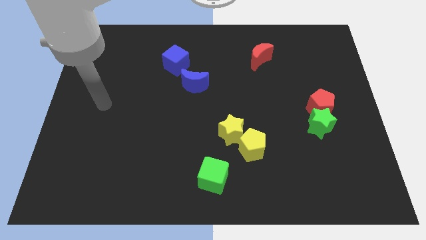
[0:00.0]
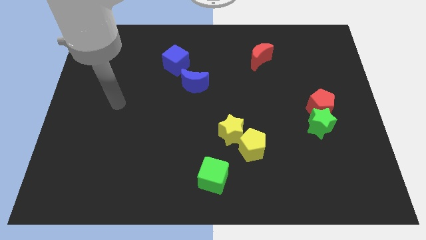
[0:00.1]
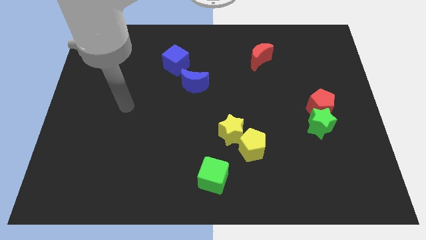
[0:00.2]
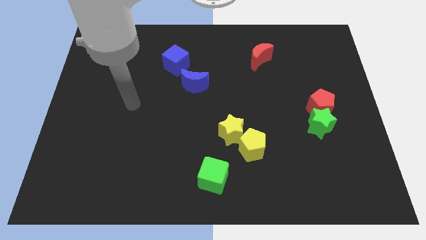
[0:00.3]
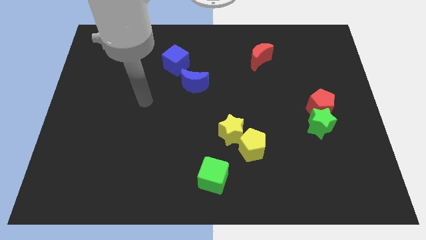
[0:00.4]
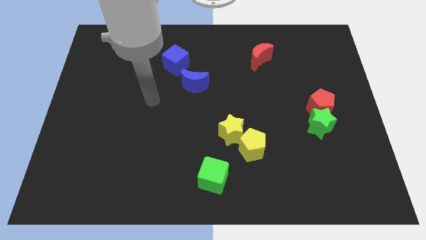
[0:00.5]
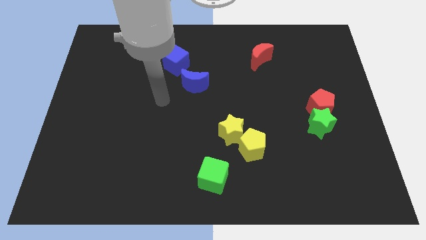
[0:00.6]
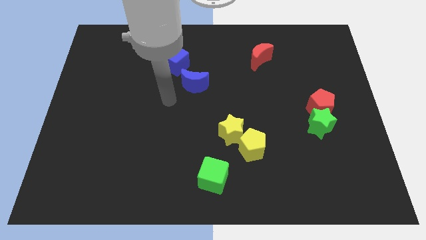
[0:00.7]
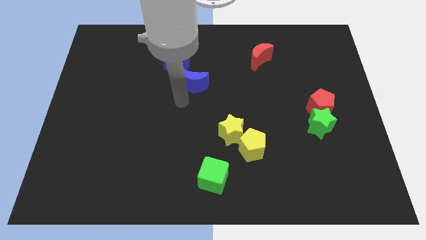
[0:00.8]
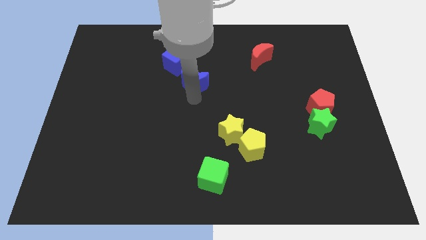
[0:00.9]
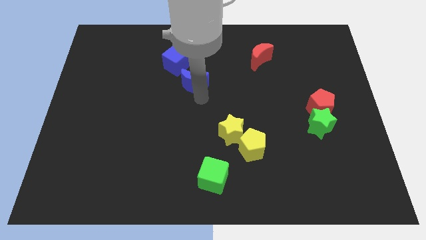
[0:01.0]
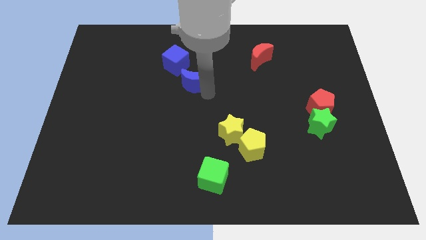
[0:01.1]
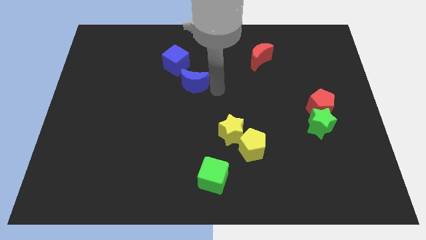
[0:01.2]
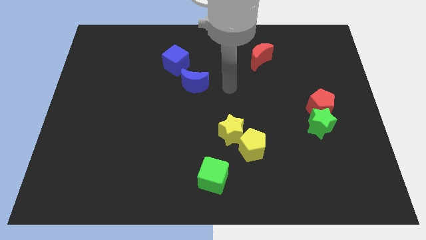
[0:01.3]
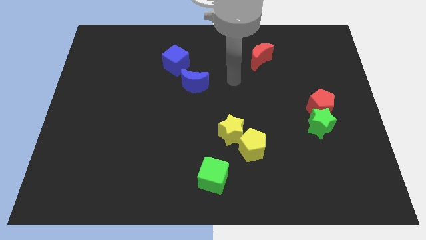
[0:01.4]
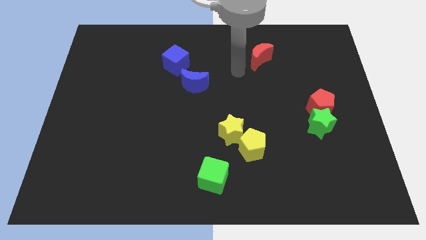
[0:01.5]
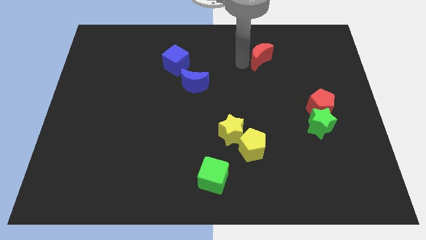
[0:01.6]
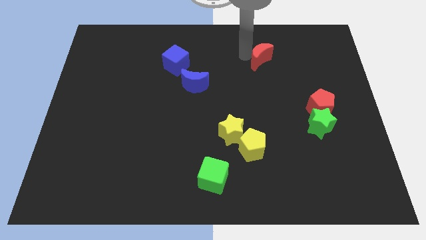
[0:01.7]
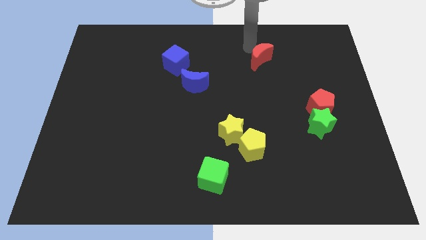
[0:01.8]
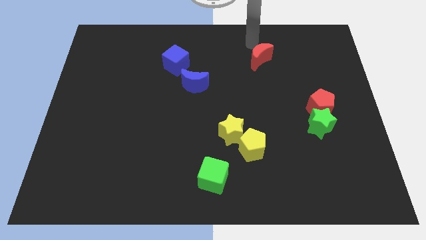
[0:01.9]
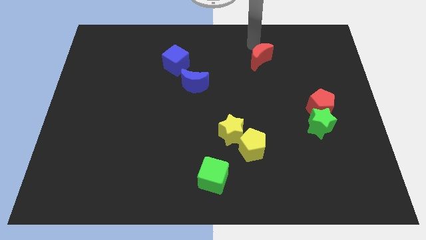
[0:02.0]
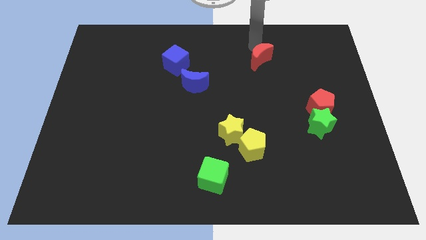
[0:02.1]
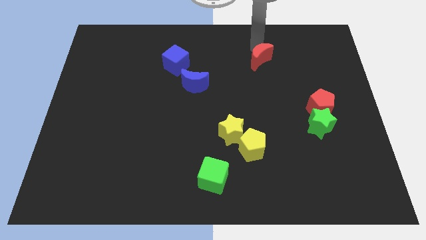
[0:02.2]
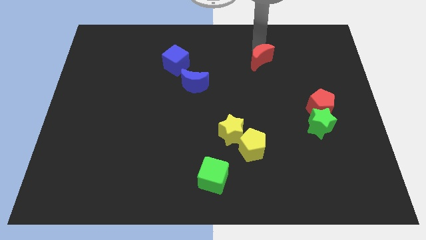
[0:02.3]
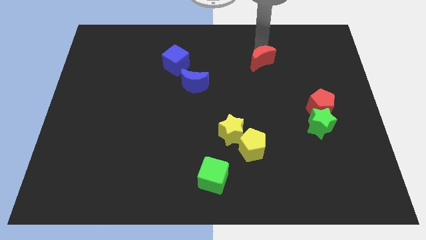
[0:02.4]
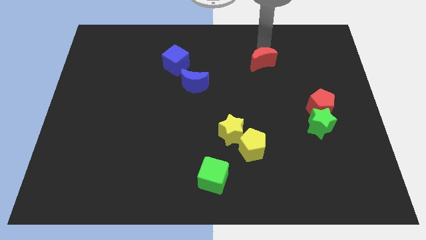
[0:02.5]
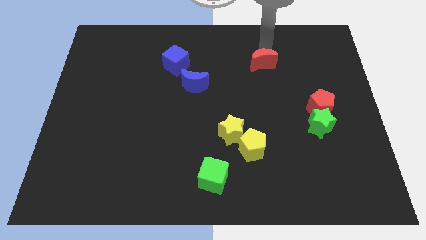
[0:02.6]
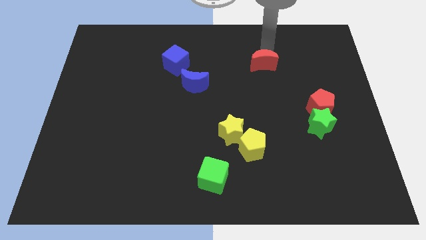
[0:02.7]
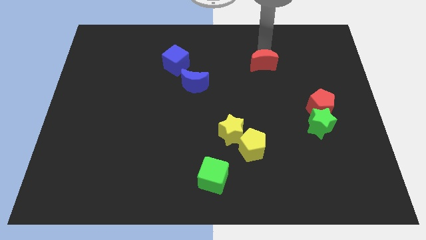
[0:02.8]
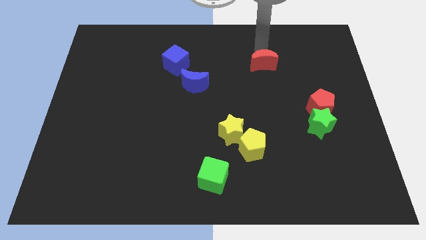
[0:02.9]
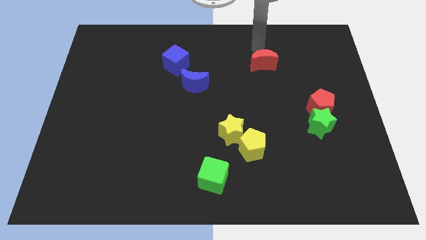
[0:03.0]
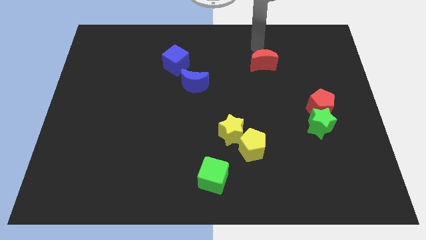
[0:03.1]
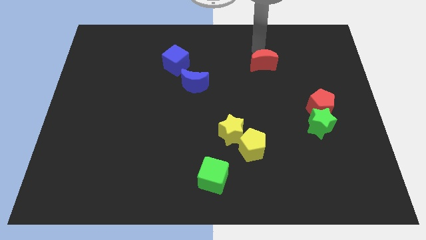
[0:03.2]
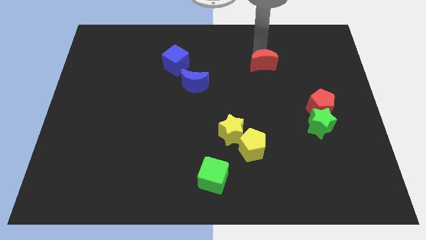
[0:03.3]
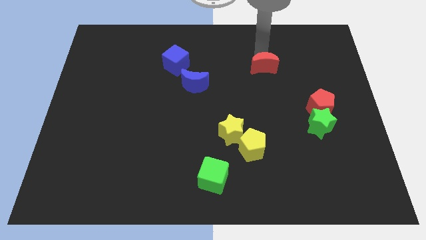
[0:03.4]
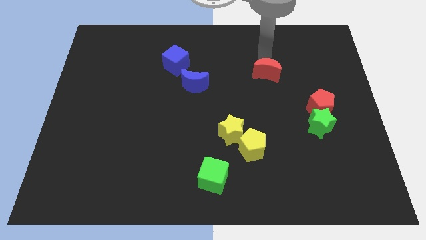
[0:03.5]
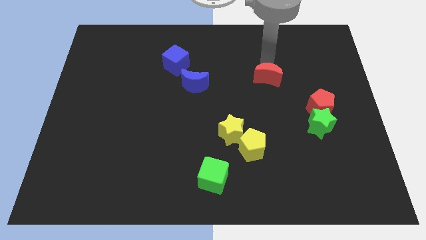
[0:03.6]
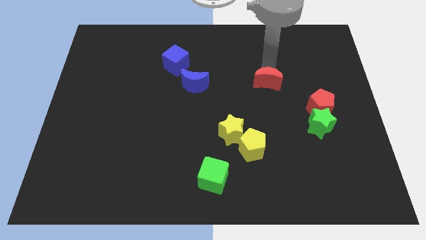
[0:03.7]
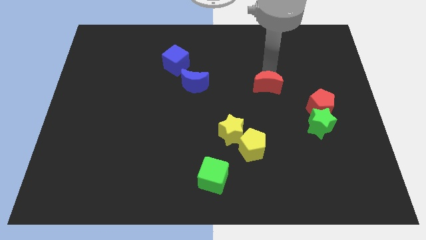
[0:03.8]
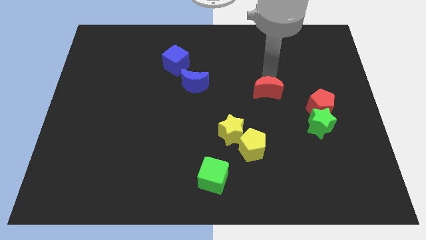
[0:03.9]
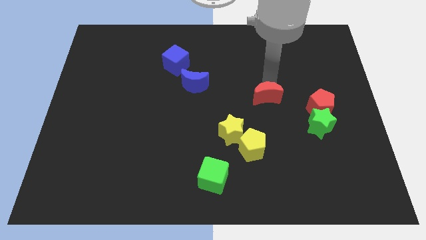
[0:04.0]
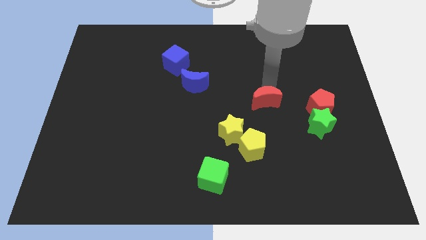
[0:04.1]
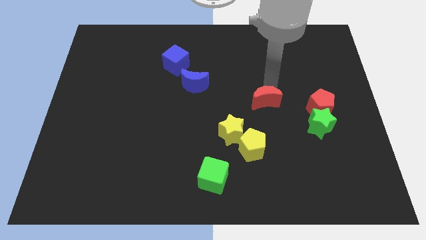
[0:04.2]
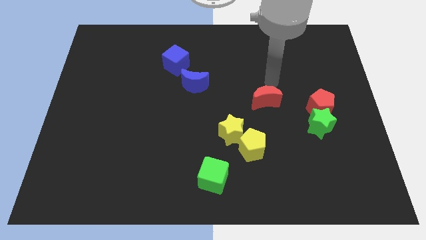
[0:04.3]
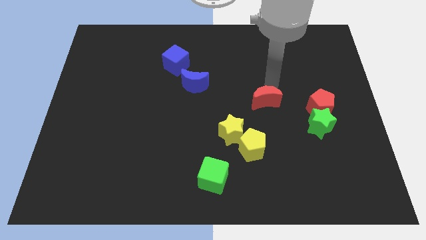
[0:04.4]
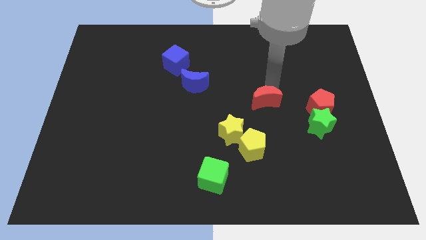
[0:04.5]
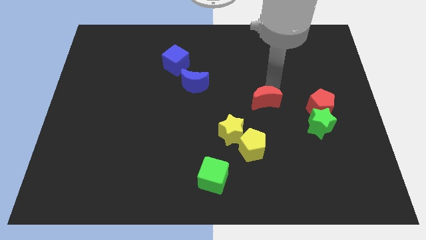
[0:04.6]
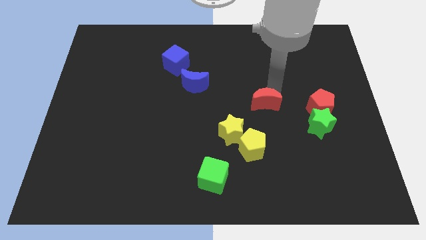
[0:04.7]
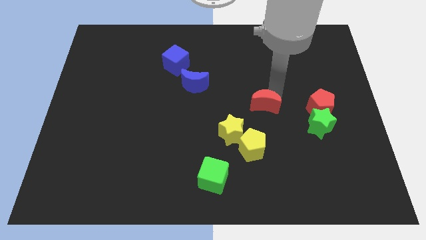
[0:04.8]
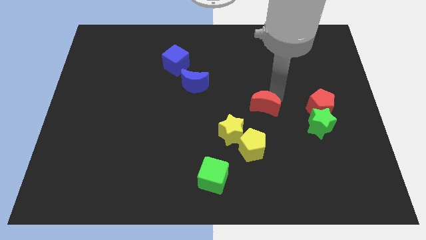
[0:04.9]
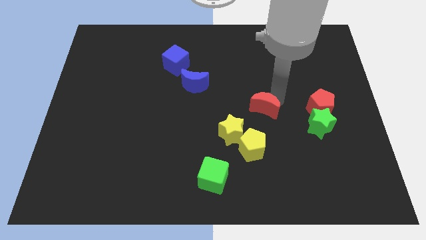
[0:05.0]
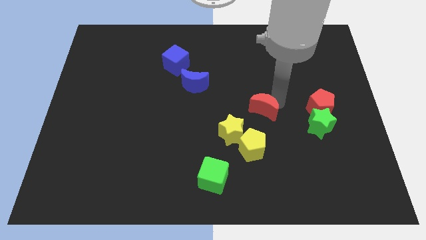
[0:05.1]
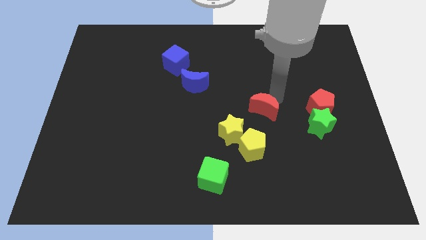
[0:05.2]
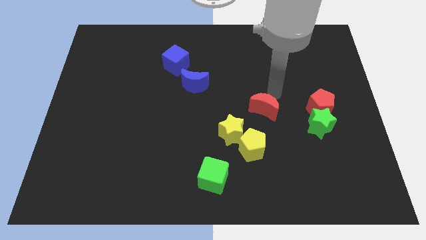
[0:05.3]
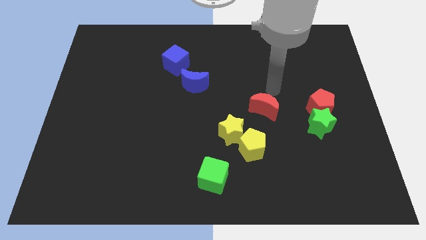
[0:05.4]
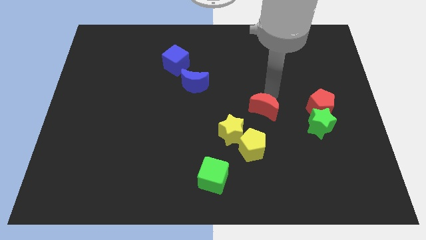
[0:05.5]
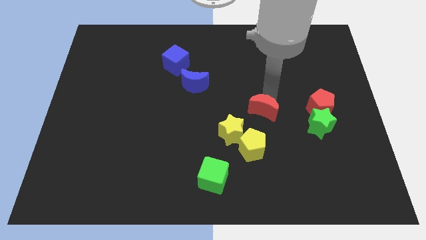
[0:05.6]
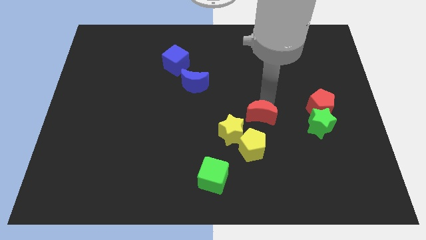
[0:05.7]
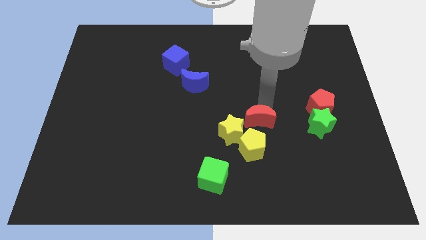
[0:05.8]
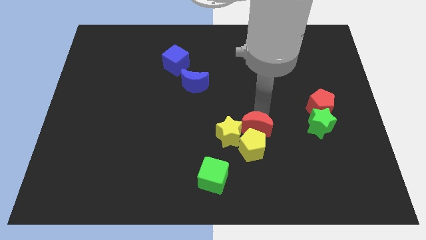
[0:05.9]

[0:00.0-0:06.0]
put the red moon close to the yellow pentagon
